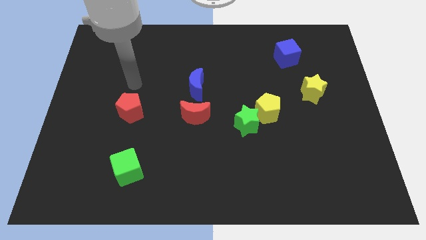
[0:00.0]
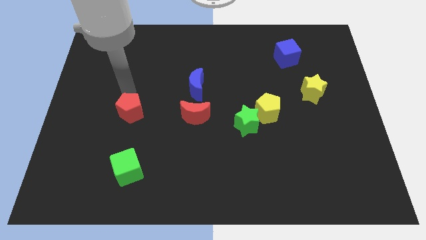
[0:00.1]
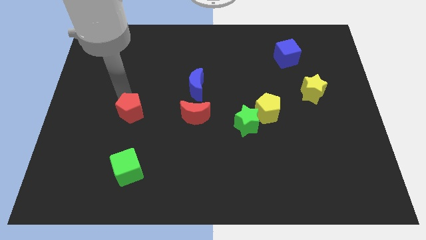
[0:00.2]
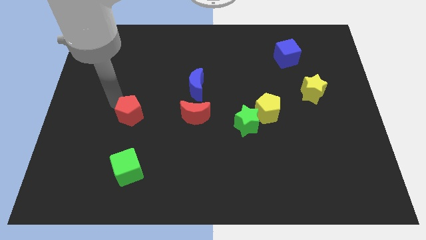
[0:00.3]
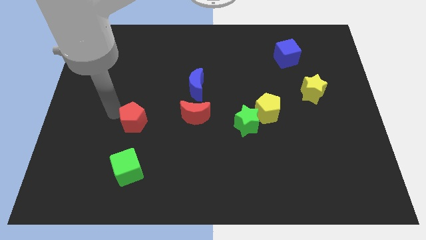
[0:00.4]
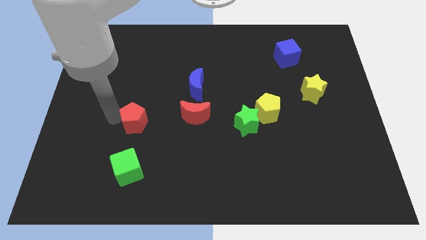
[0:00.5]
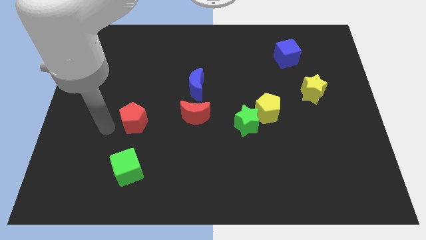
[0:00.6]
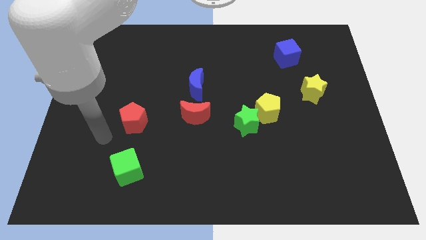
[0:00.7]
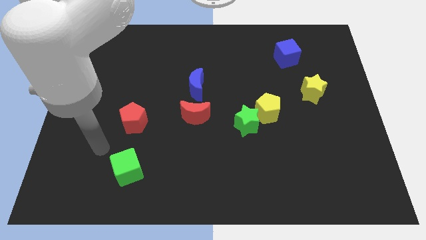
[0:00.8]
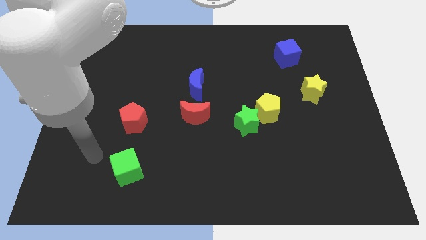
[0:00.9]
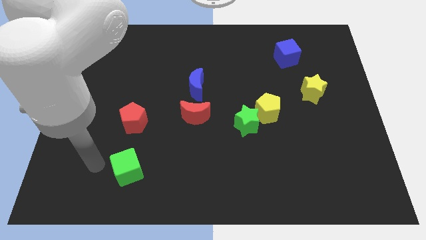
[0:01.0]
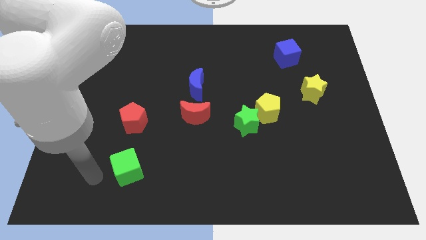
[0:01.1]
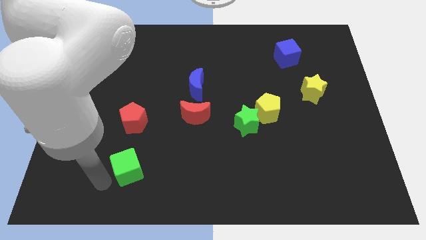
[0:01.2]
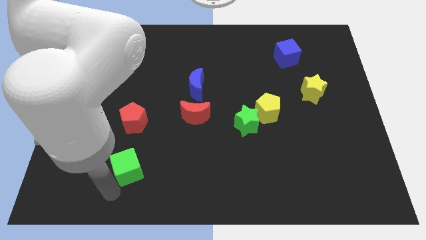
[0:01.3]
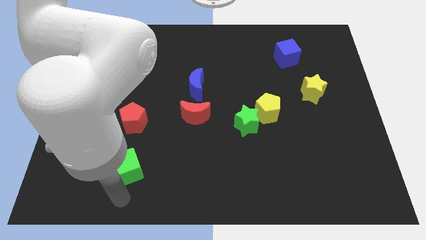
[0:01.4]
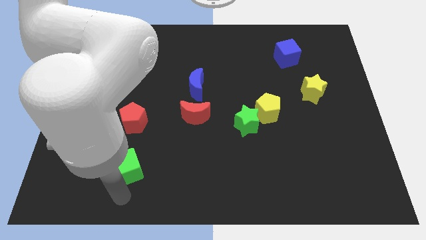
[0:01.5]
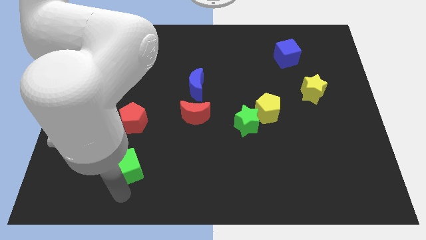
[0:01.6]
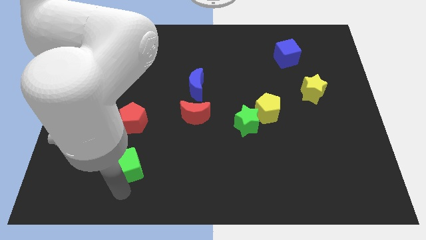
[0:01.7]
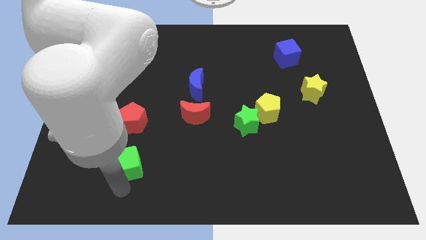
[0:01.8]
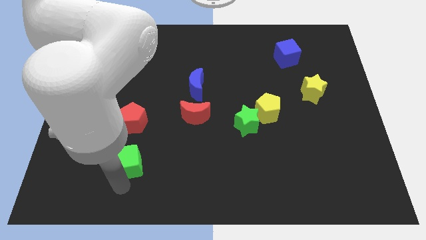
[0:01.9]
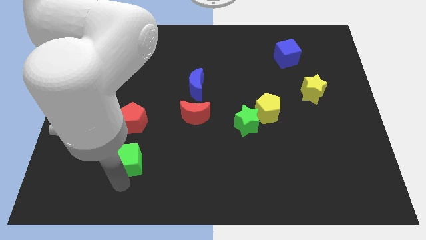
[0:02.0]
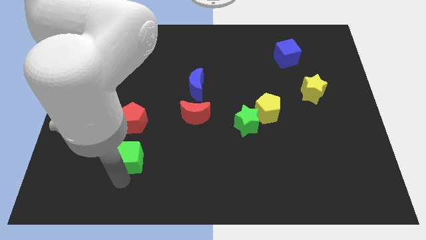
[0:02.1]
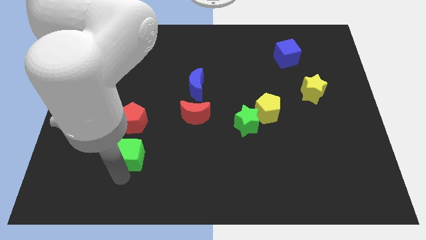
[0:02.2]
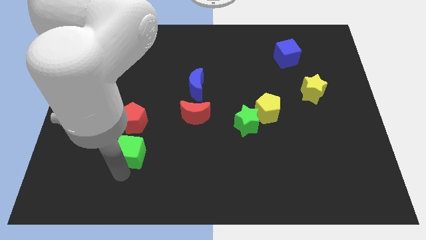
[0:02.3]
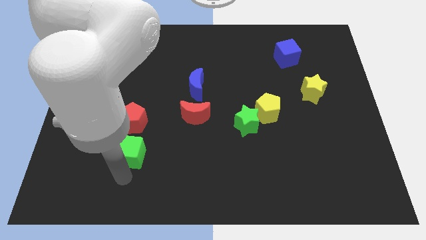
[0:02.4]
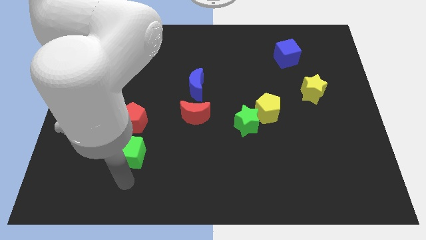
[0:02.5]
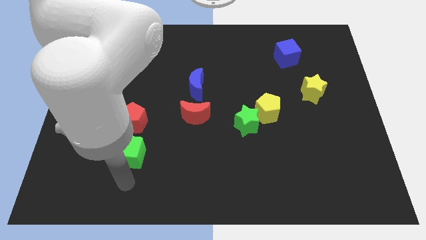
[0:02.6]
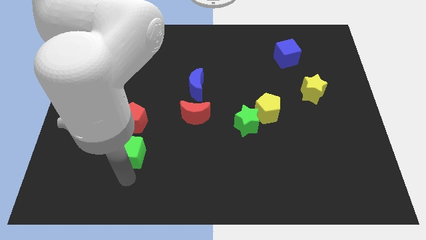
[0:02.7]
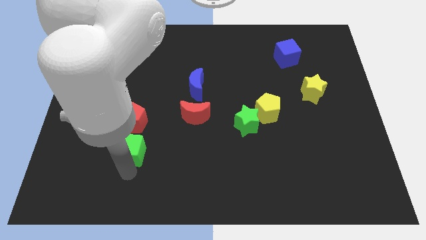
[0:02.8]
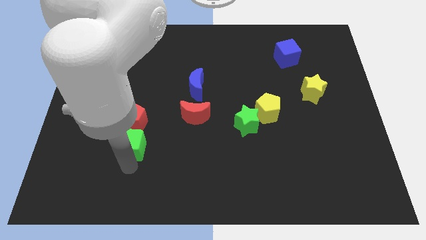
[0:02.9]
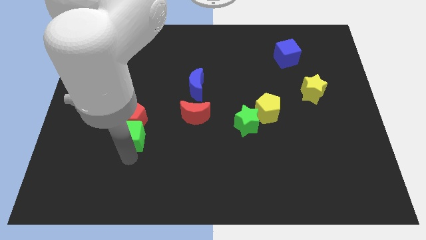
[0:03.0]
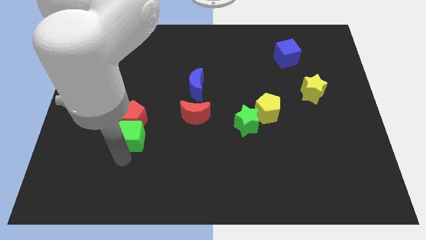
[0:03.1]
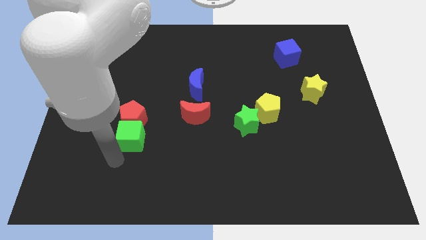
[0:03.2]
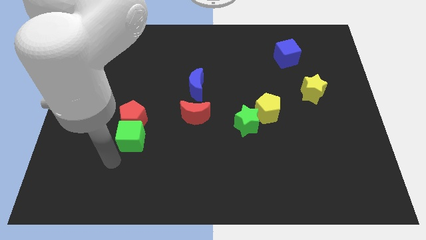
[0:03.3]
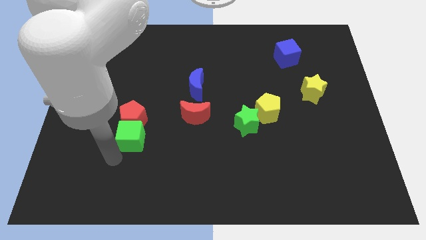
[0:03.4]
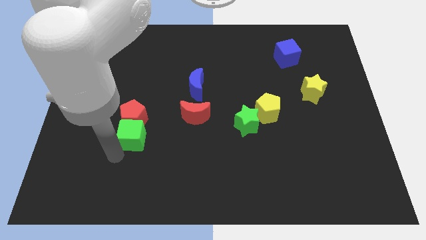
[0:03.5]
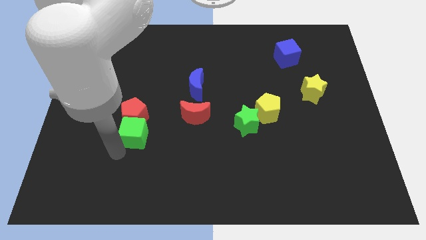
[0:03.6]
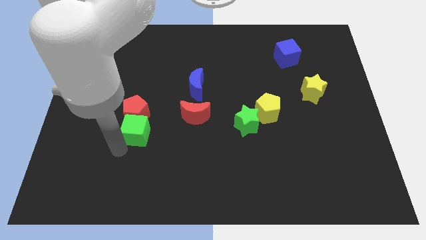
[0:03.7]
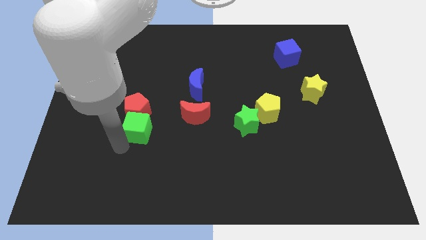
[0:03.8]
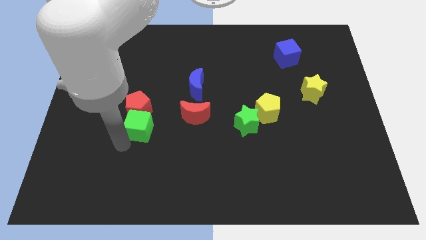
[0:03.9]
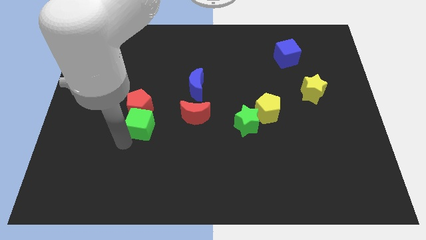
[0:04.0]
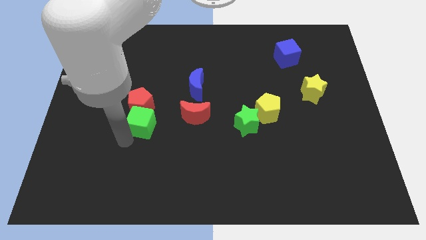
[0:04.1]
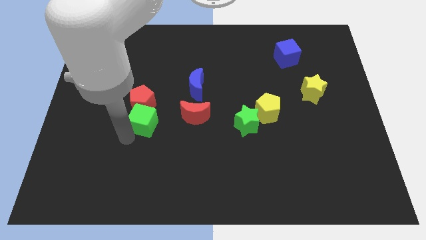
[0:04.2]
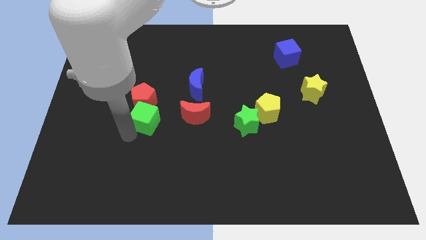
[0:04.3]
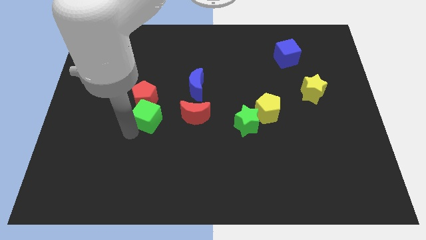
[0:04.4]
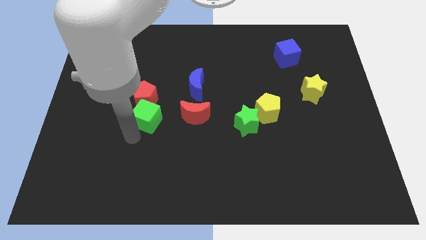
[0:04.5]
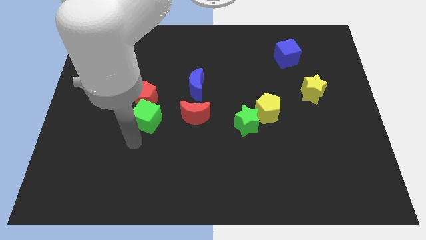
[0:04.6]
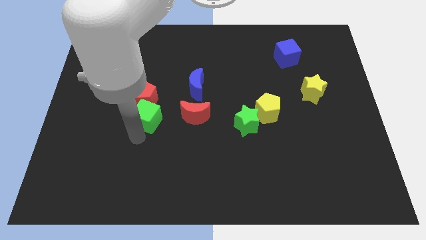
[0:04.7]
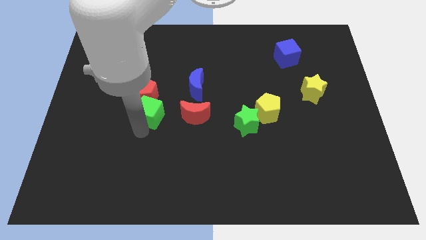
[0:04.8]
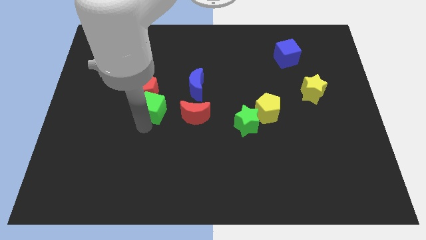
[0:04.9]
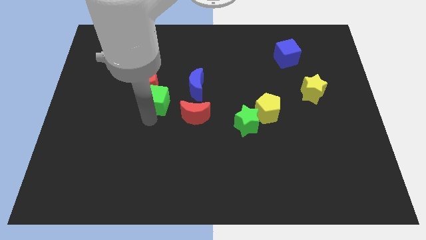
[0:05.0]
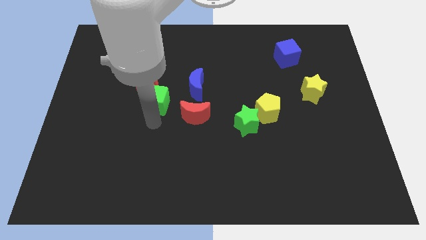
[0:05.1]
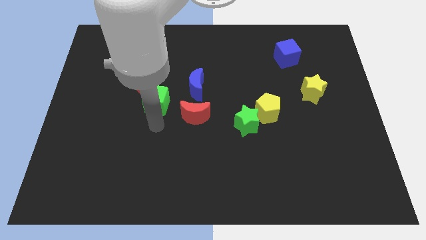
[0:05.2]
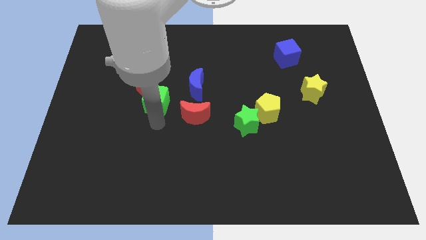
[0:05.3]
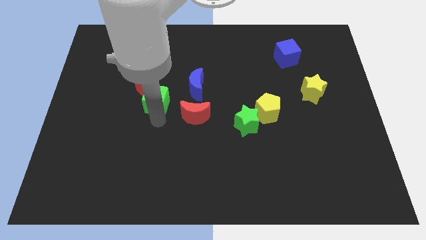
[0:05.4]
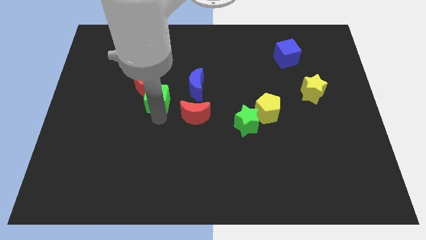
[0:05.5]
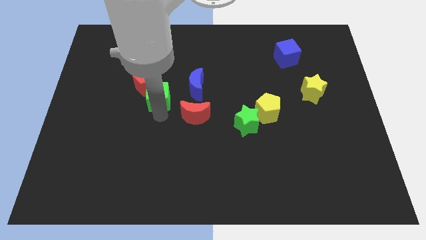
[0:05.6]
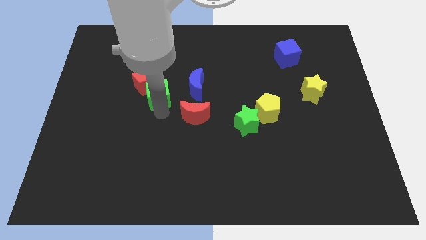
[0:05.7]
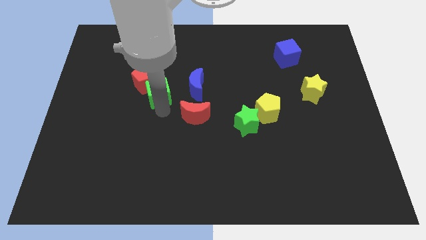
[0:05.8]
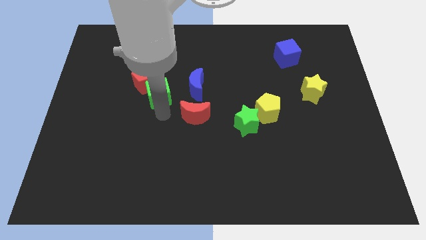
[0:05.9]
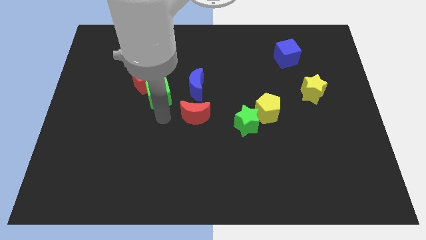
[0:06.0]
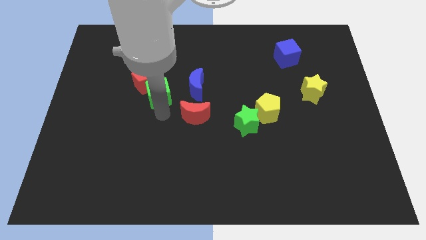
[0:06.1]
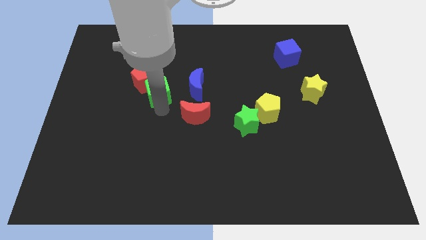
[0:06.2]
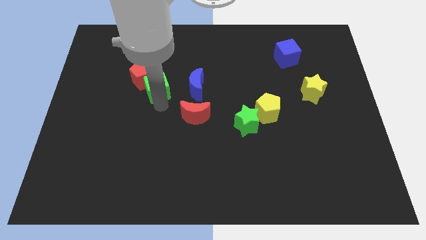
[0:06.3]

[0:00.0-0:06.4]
move the green cube up

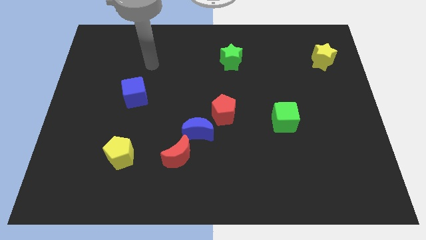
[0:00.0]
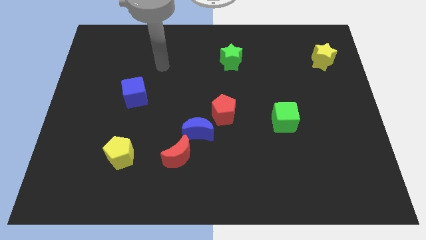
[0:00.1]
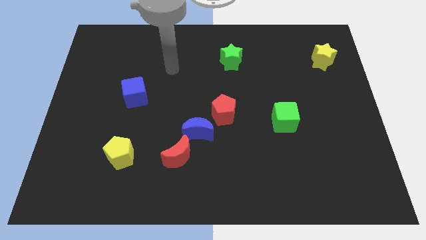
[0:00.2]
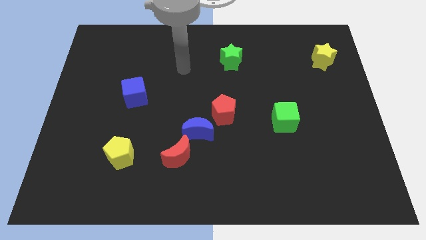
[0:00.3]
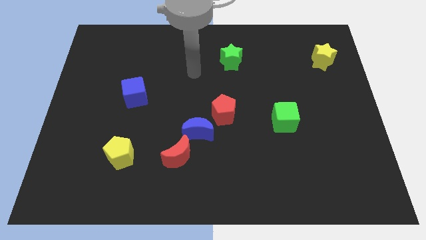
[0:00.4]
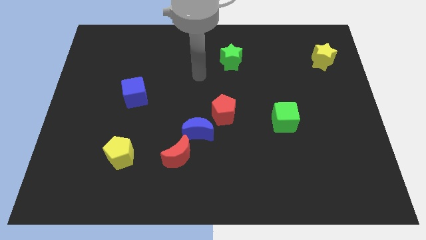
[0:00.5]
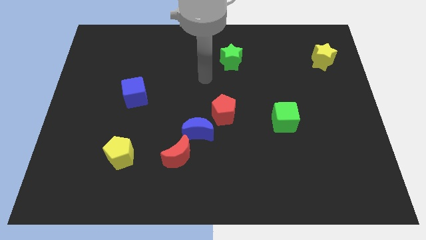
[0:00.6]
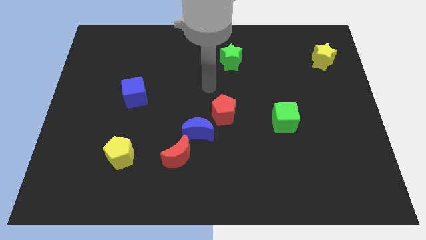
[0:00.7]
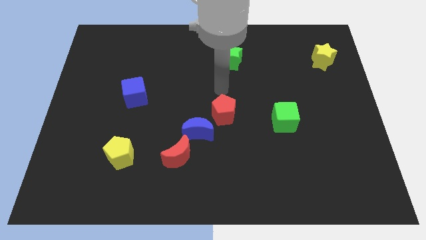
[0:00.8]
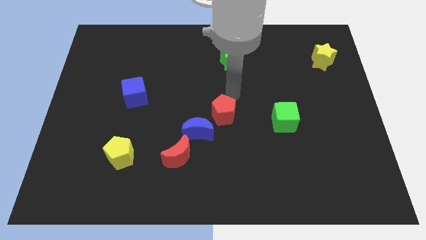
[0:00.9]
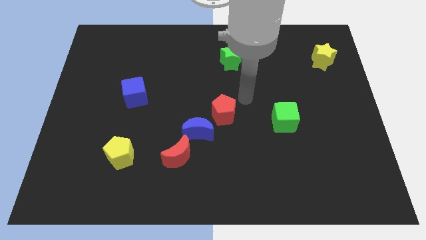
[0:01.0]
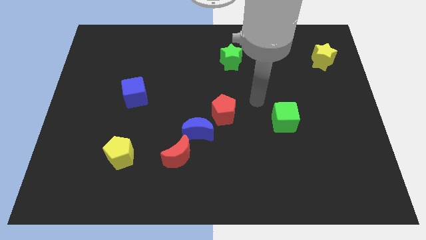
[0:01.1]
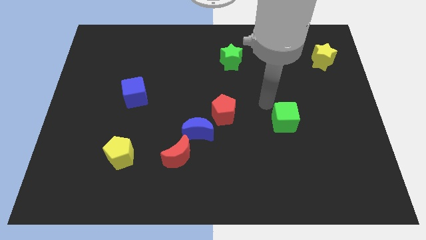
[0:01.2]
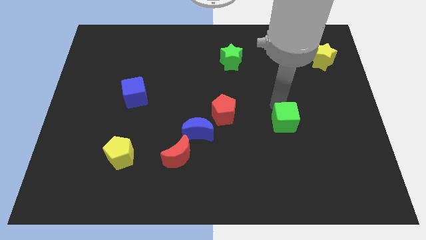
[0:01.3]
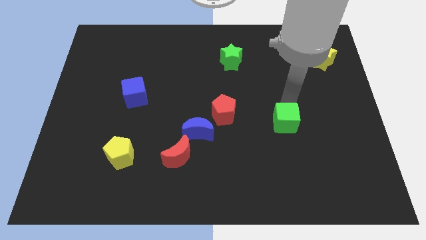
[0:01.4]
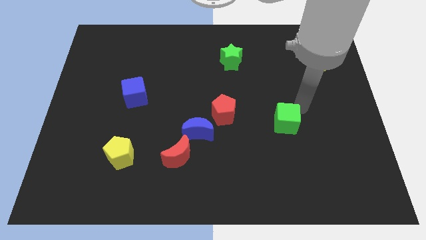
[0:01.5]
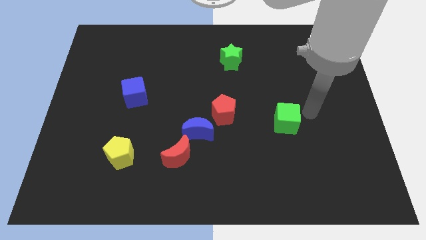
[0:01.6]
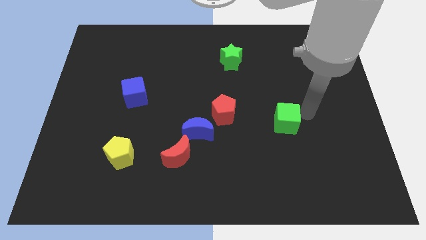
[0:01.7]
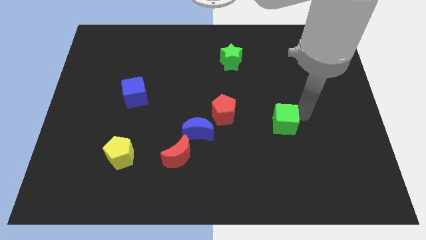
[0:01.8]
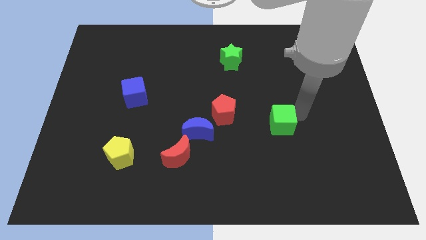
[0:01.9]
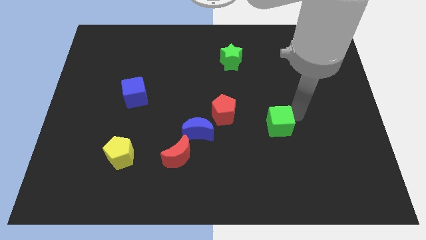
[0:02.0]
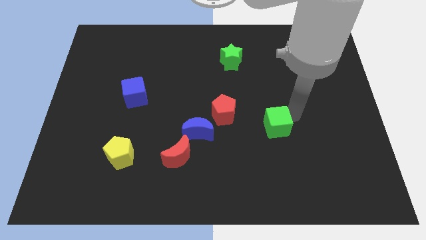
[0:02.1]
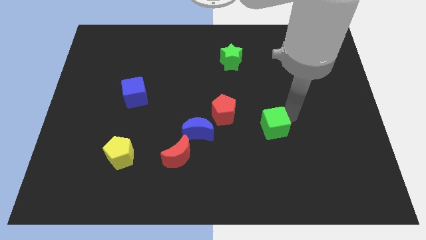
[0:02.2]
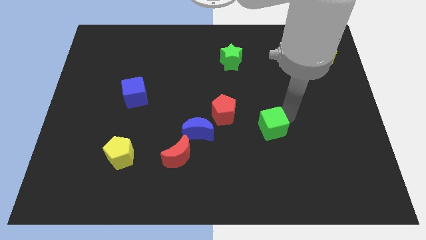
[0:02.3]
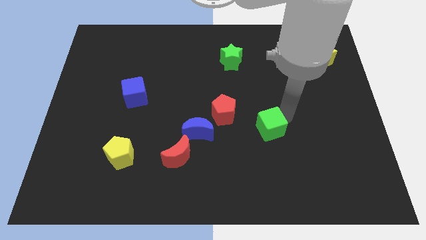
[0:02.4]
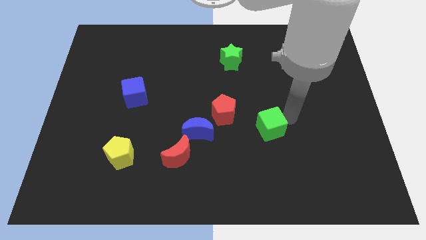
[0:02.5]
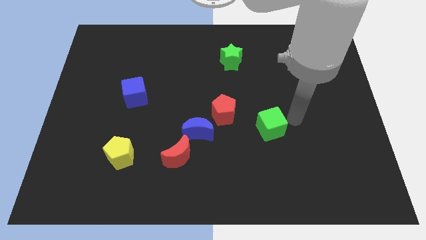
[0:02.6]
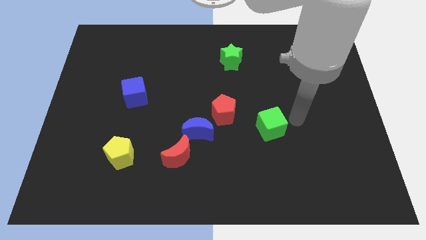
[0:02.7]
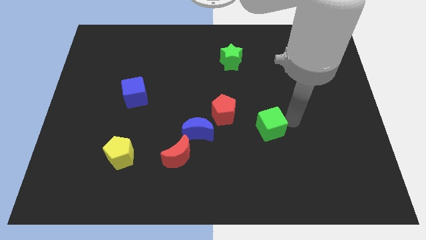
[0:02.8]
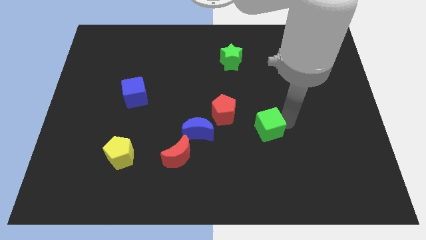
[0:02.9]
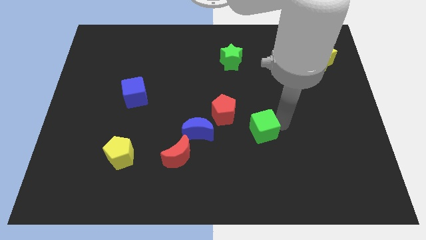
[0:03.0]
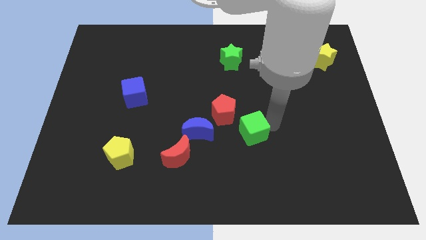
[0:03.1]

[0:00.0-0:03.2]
slide the green cube a little bit downwards and to the left diagonally
